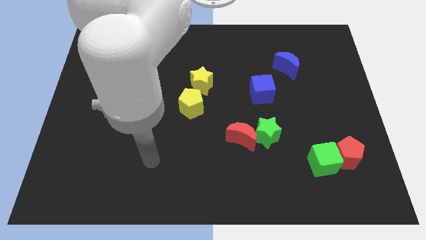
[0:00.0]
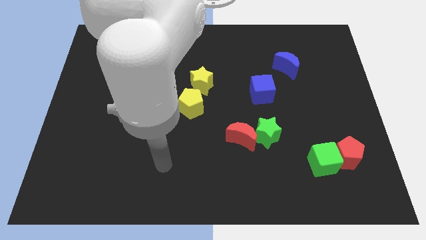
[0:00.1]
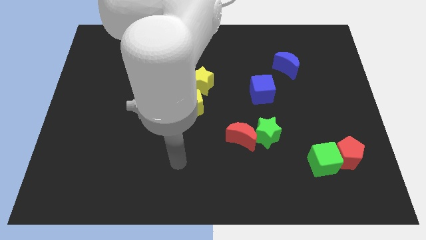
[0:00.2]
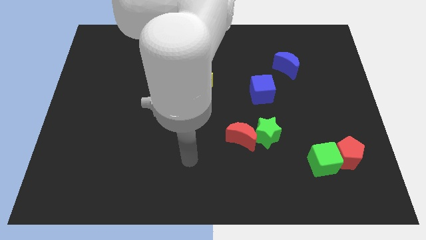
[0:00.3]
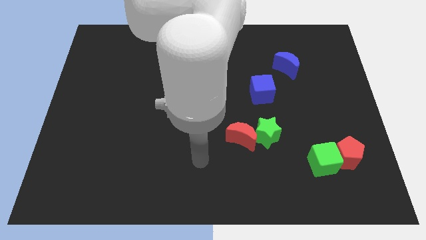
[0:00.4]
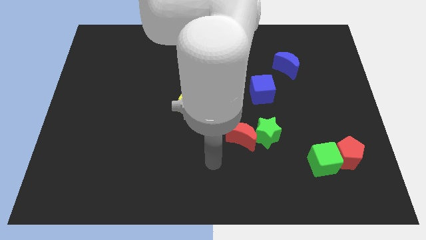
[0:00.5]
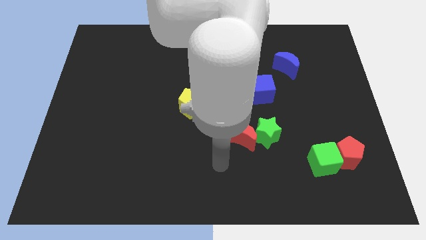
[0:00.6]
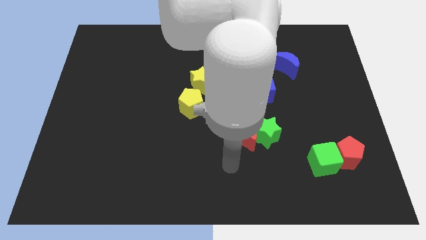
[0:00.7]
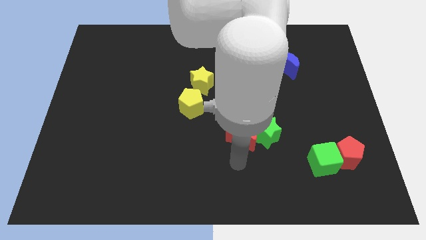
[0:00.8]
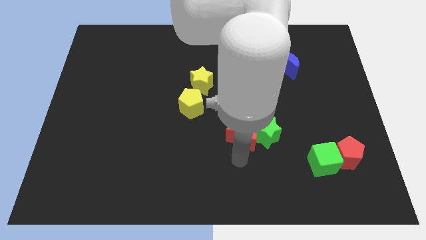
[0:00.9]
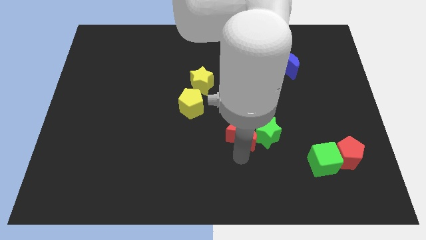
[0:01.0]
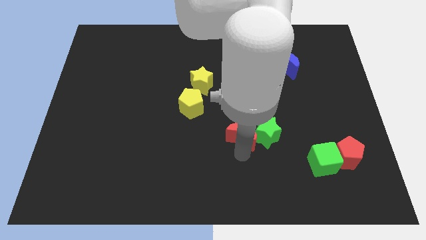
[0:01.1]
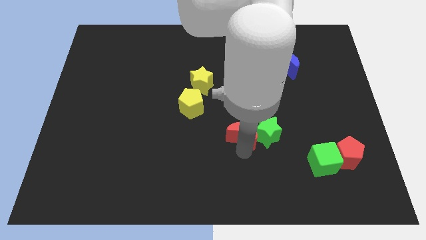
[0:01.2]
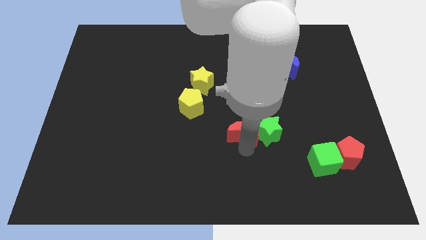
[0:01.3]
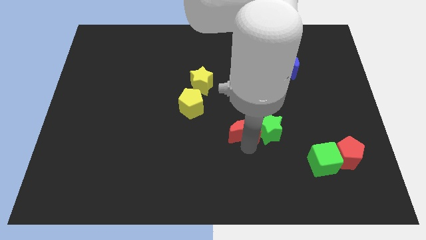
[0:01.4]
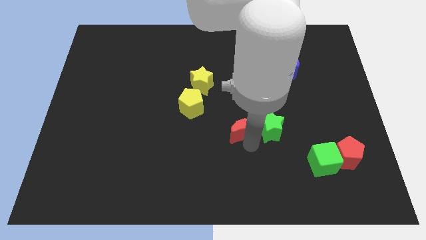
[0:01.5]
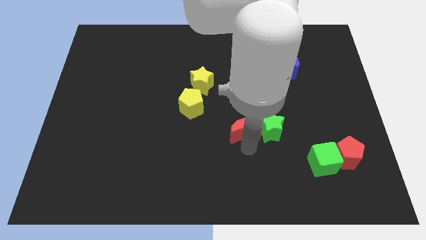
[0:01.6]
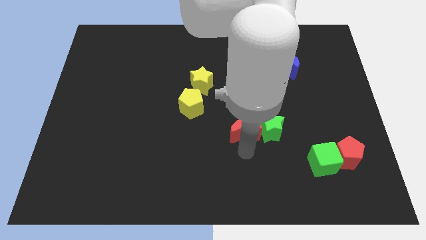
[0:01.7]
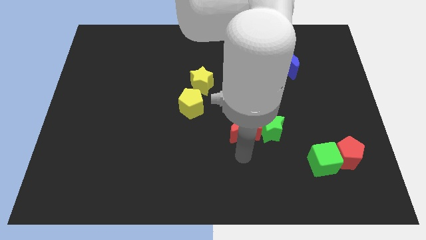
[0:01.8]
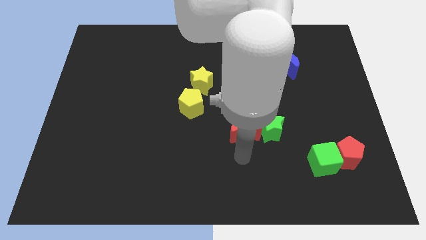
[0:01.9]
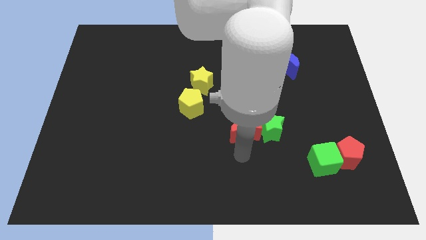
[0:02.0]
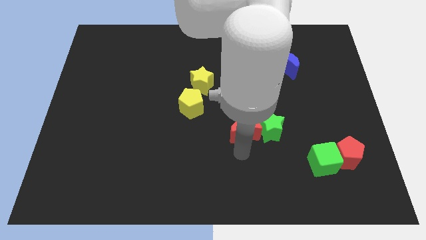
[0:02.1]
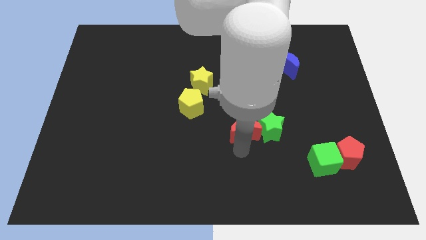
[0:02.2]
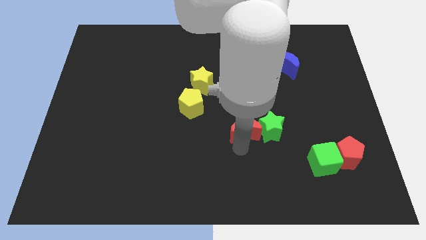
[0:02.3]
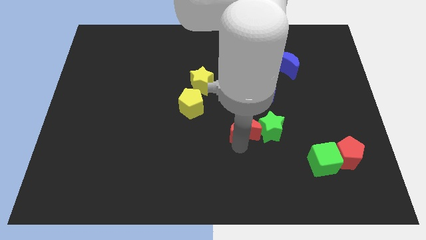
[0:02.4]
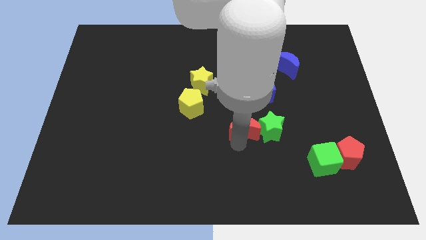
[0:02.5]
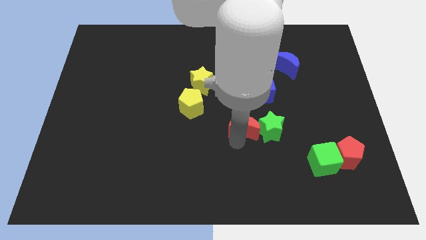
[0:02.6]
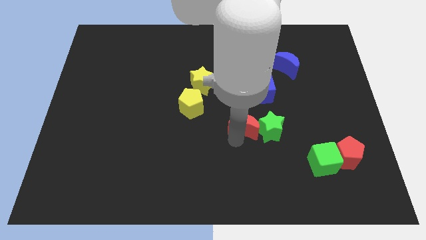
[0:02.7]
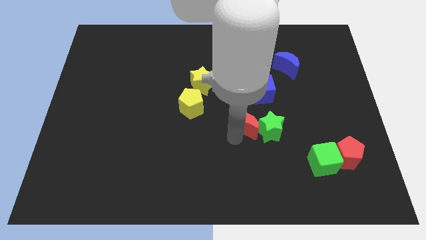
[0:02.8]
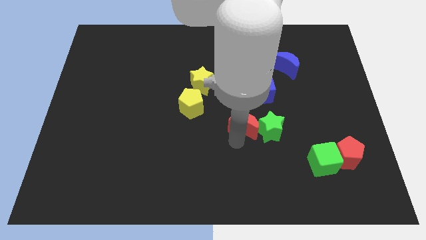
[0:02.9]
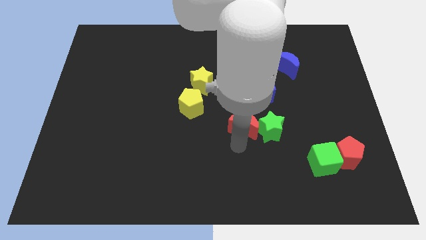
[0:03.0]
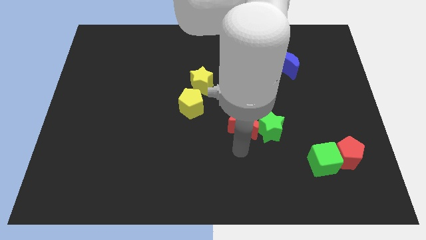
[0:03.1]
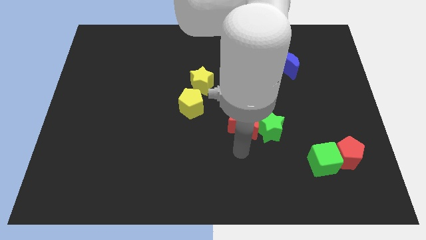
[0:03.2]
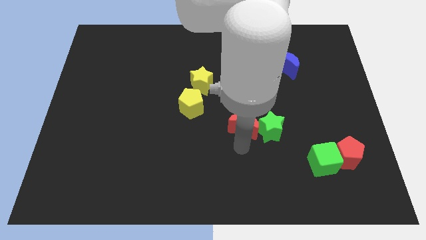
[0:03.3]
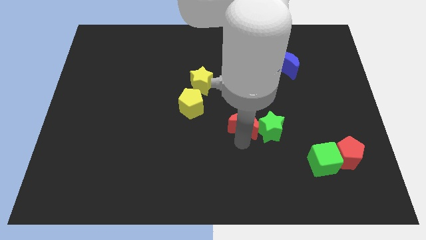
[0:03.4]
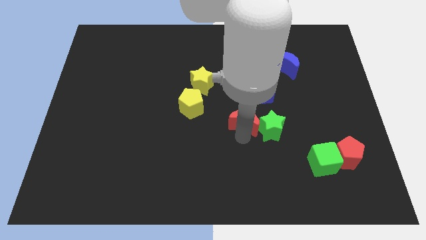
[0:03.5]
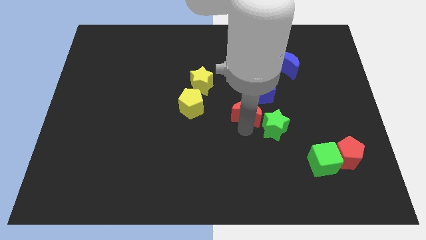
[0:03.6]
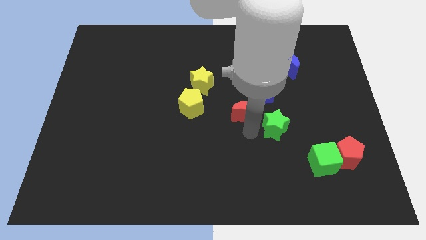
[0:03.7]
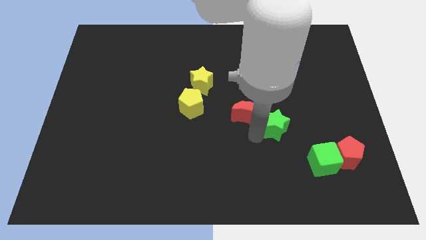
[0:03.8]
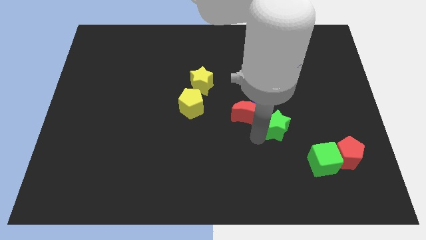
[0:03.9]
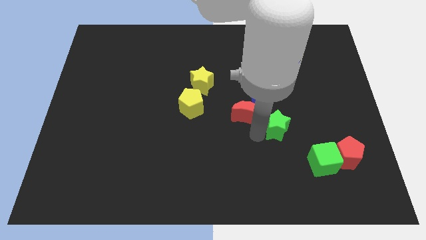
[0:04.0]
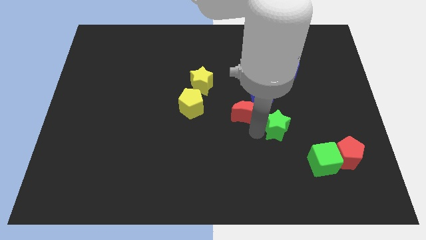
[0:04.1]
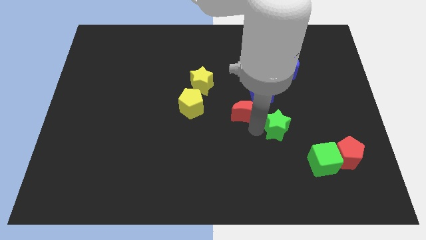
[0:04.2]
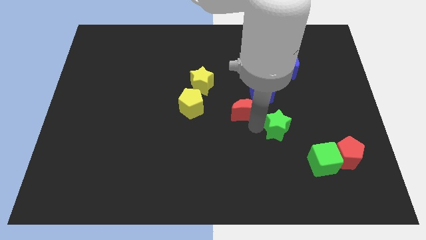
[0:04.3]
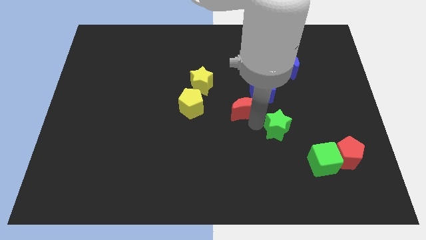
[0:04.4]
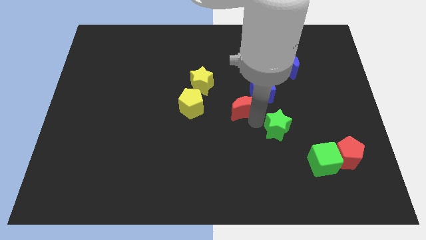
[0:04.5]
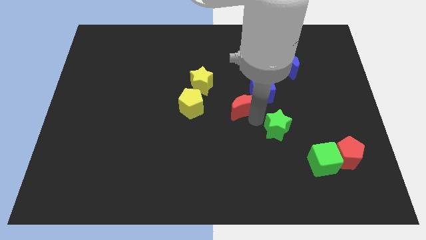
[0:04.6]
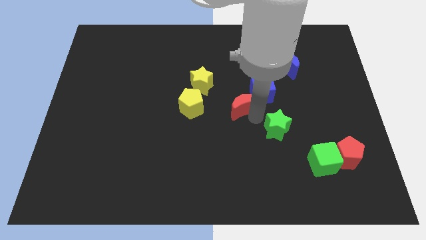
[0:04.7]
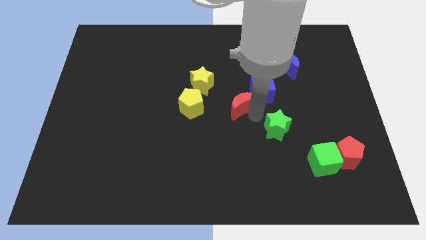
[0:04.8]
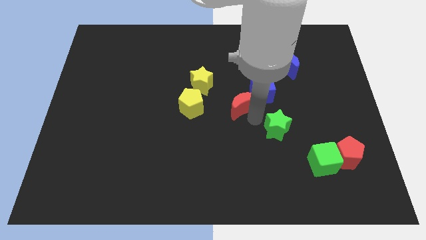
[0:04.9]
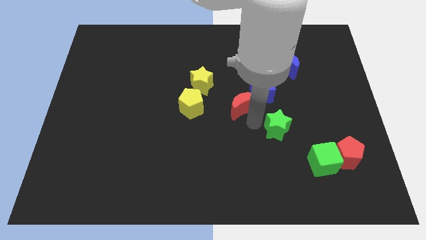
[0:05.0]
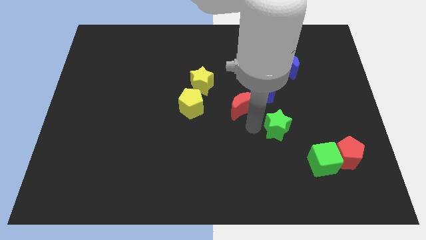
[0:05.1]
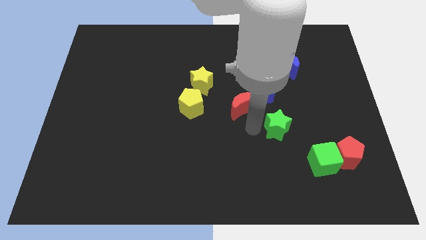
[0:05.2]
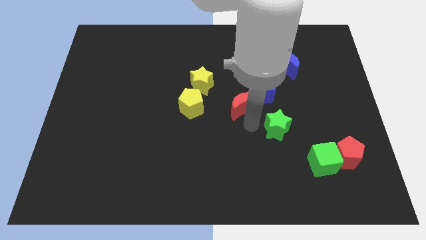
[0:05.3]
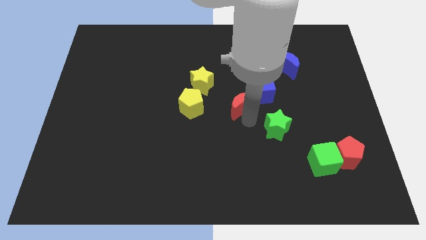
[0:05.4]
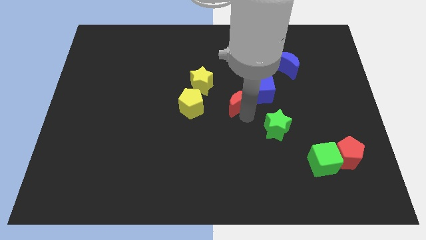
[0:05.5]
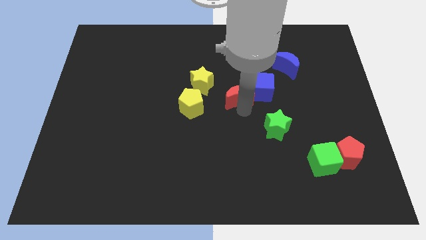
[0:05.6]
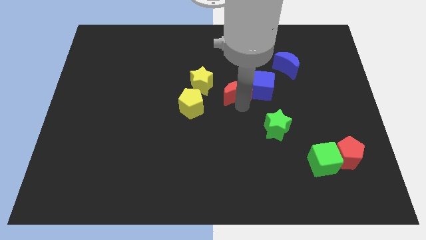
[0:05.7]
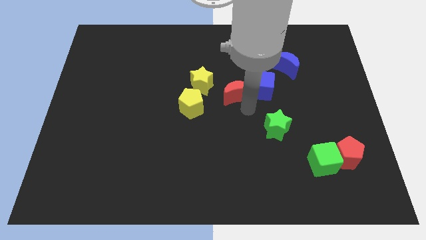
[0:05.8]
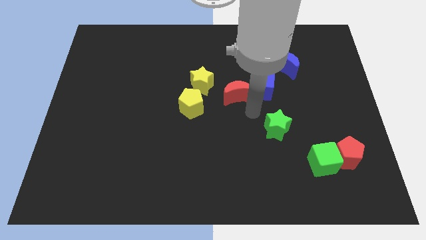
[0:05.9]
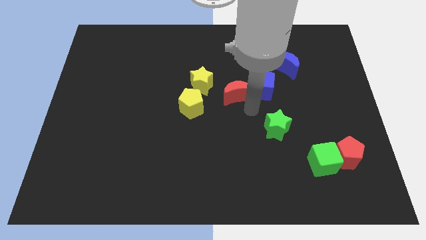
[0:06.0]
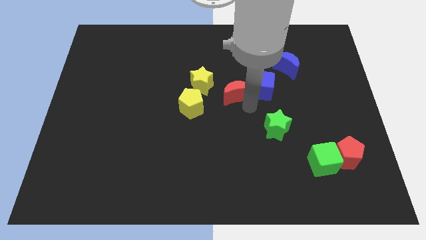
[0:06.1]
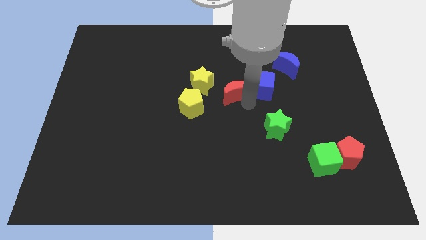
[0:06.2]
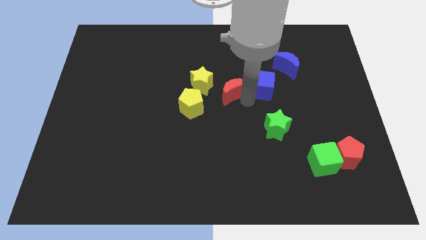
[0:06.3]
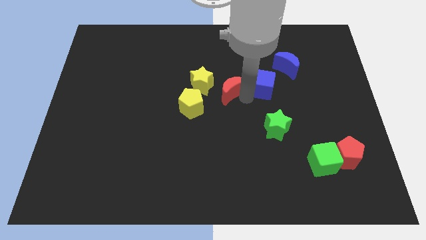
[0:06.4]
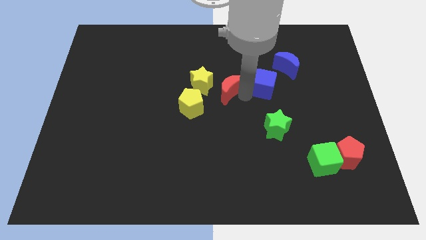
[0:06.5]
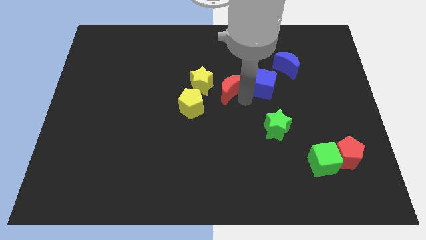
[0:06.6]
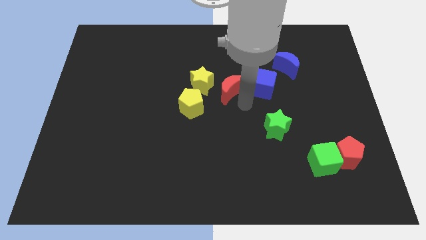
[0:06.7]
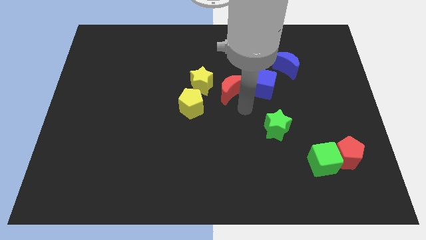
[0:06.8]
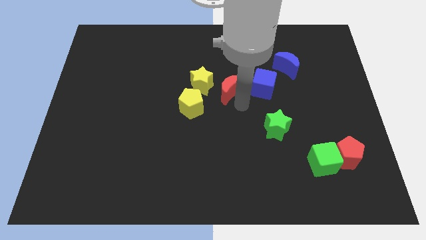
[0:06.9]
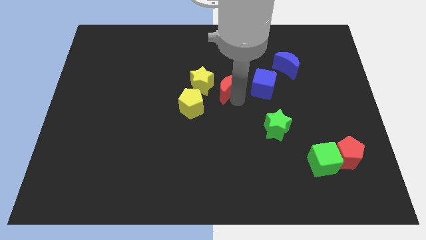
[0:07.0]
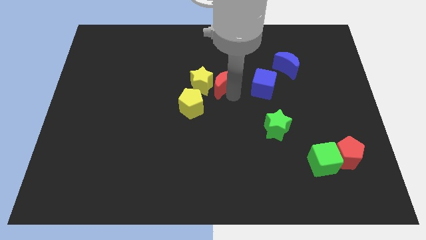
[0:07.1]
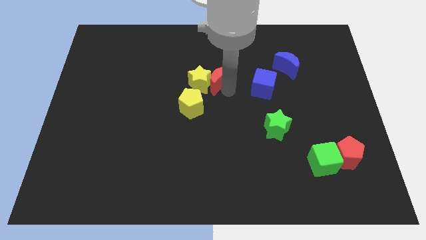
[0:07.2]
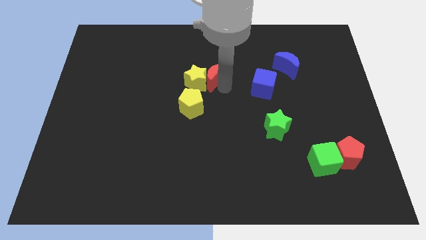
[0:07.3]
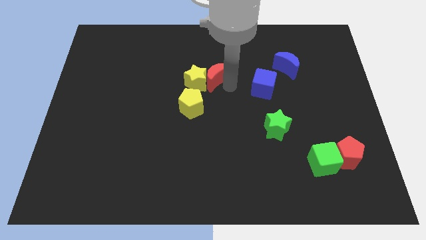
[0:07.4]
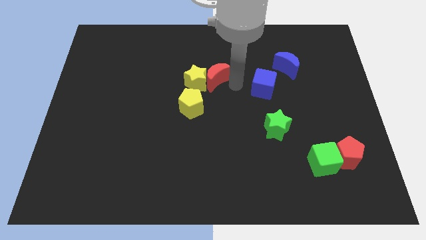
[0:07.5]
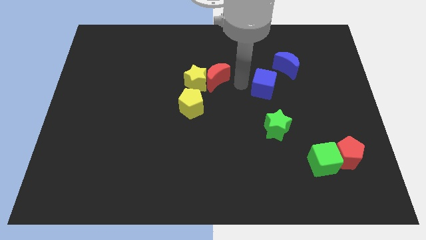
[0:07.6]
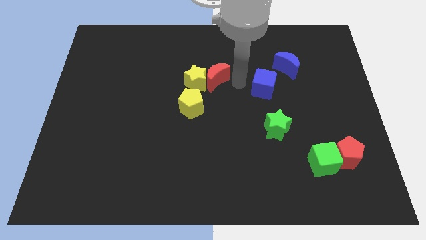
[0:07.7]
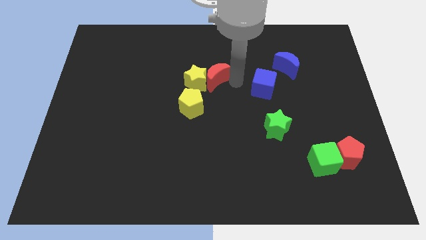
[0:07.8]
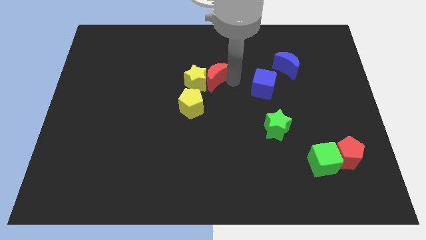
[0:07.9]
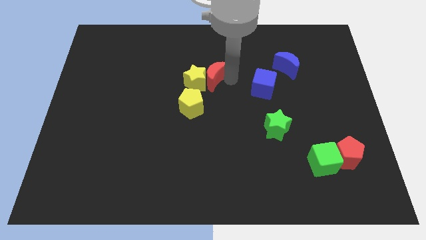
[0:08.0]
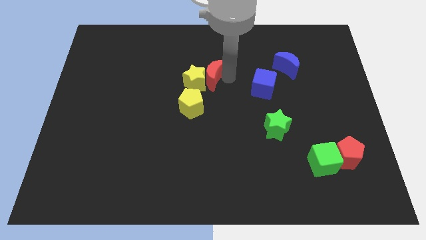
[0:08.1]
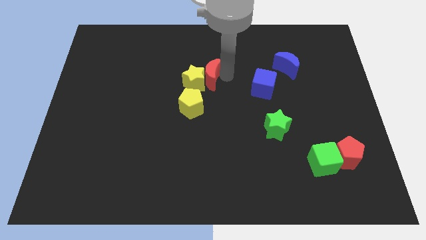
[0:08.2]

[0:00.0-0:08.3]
push the red moon to the top side of the yellow pentagon

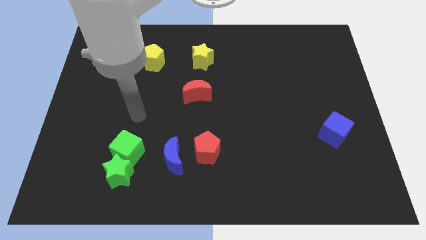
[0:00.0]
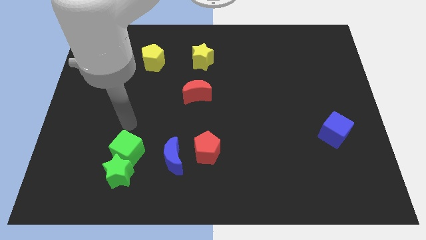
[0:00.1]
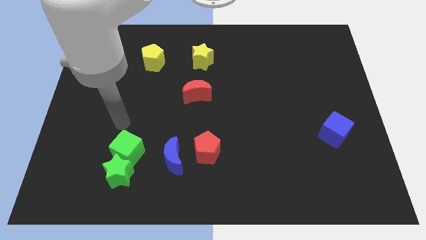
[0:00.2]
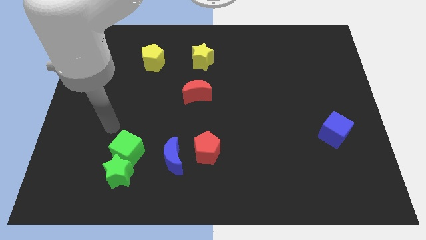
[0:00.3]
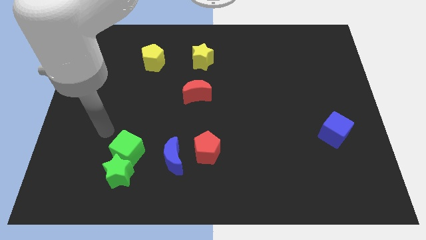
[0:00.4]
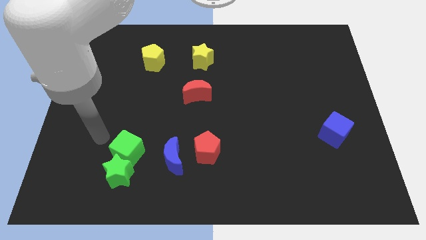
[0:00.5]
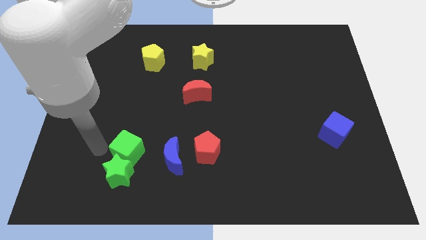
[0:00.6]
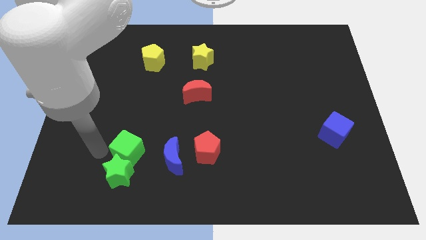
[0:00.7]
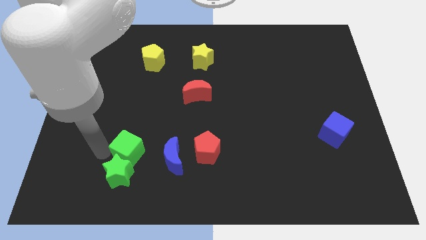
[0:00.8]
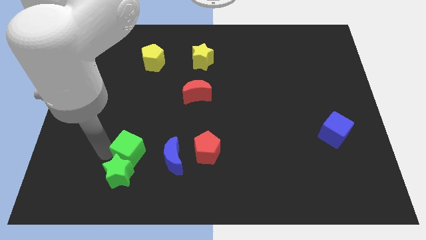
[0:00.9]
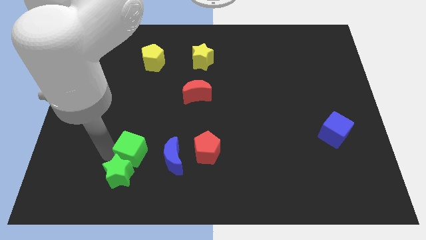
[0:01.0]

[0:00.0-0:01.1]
move the green cube to the left of the red pentagon
